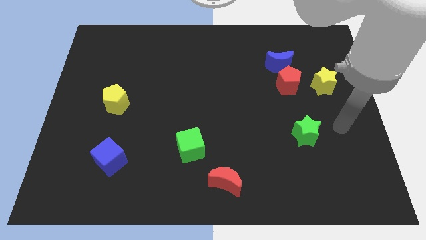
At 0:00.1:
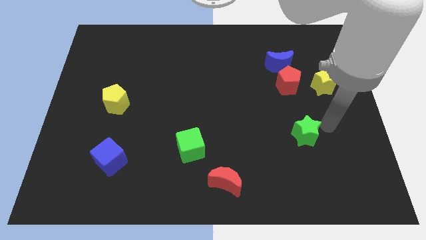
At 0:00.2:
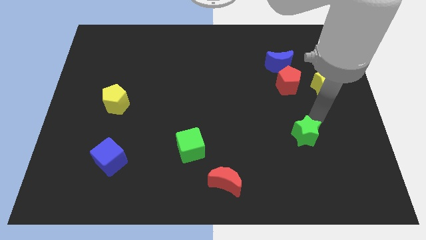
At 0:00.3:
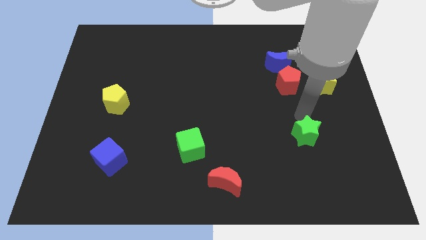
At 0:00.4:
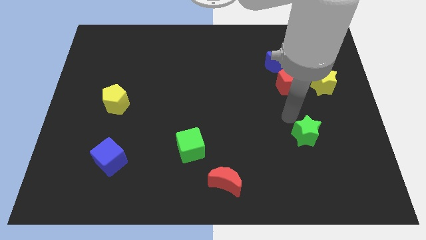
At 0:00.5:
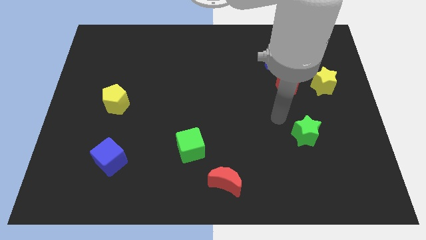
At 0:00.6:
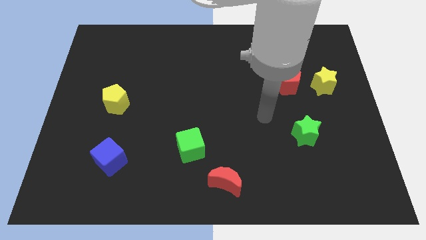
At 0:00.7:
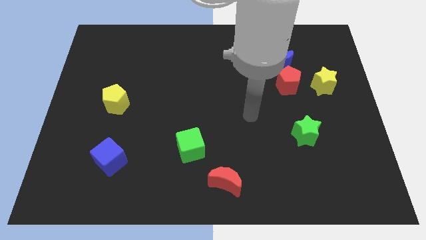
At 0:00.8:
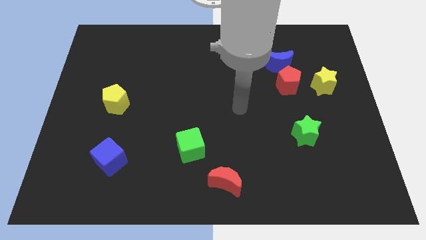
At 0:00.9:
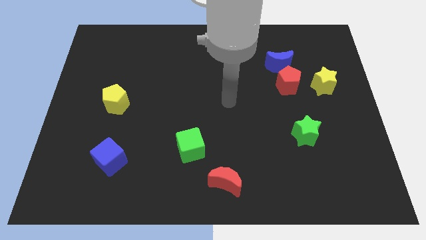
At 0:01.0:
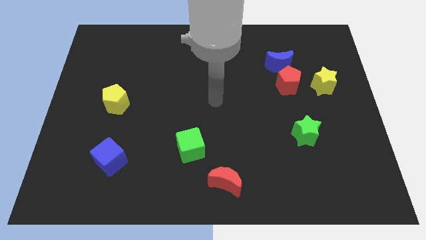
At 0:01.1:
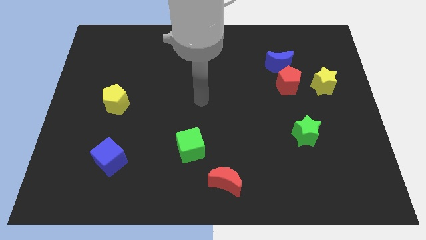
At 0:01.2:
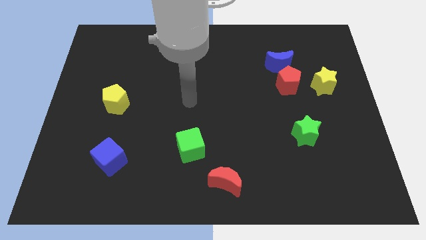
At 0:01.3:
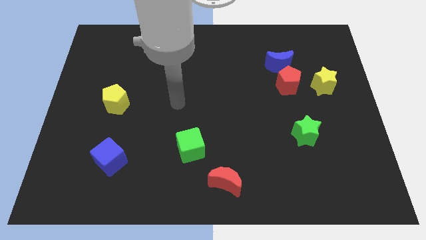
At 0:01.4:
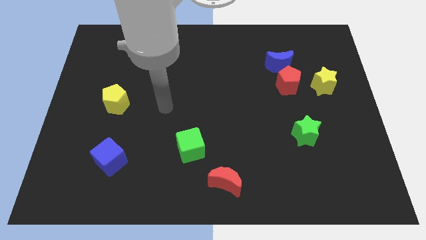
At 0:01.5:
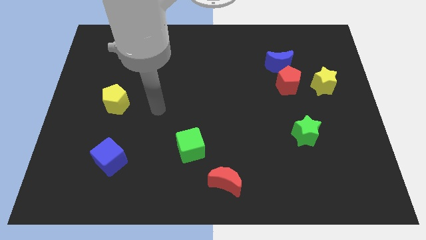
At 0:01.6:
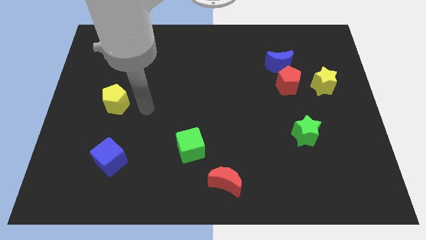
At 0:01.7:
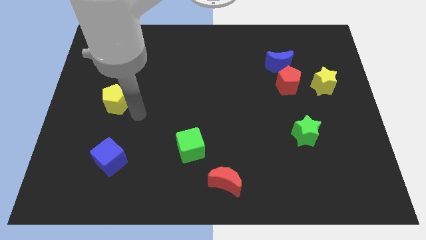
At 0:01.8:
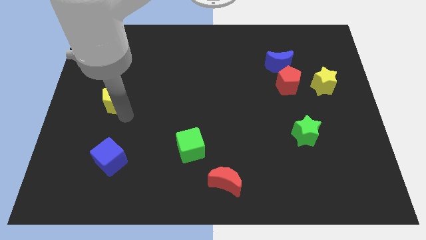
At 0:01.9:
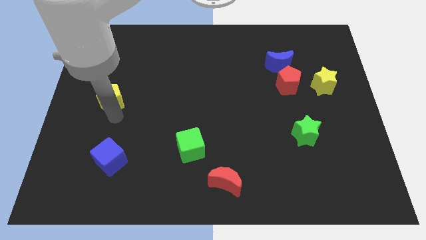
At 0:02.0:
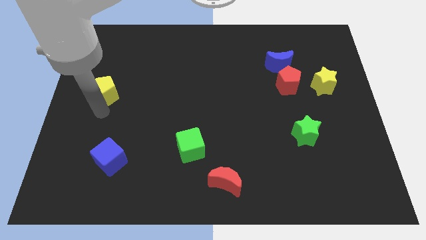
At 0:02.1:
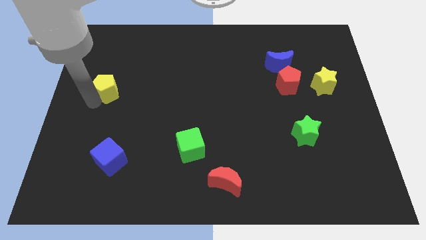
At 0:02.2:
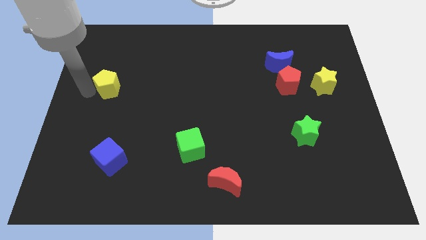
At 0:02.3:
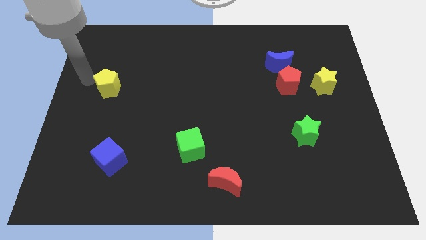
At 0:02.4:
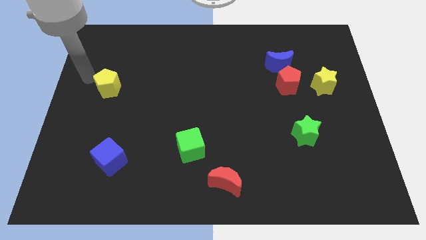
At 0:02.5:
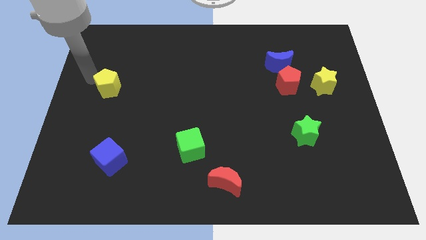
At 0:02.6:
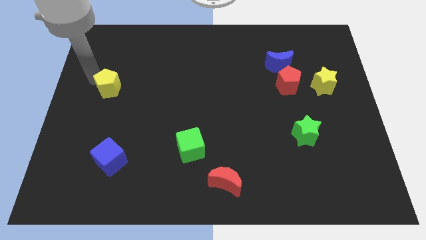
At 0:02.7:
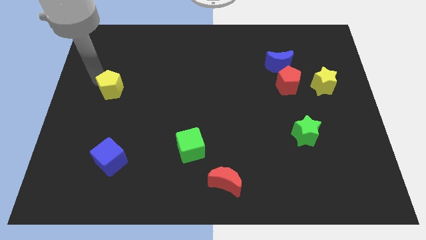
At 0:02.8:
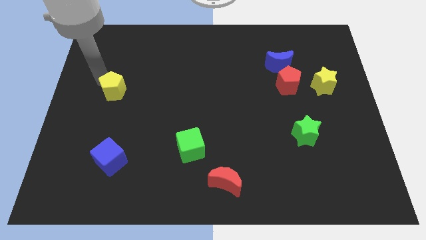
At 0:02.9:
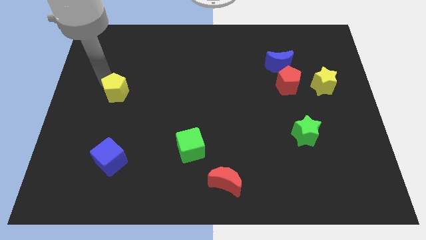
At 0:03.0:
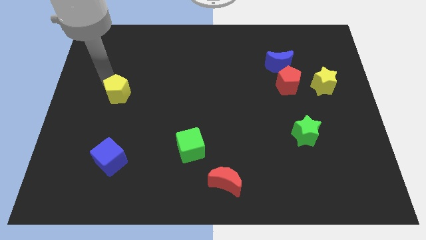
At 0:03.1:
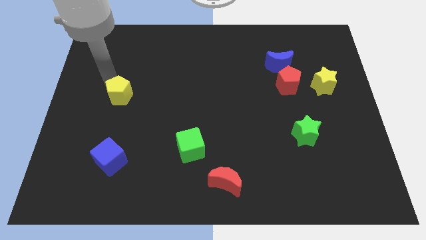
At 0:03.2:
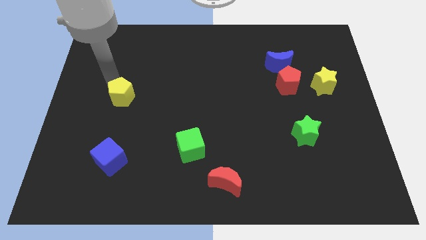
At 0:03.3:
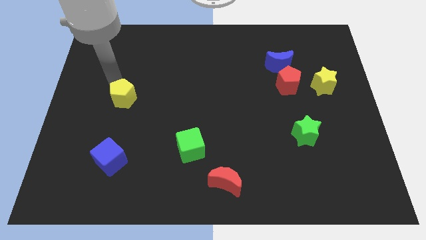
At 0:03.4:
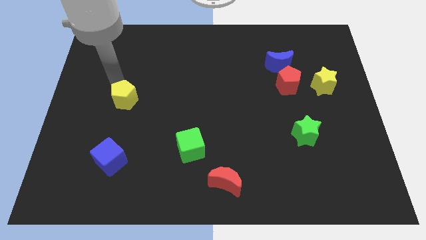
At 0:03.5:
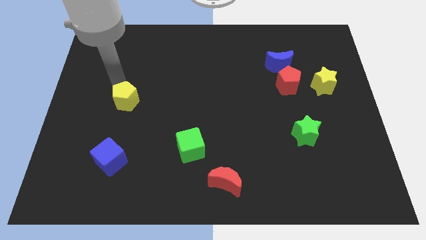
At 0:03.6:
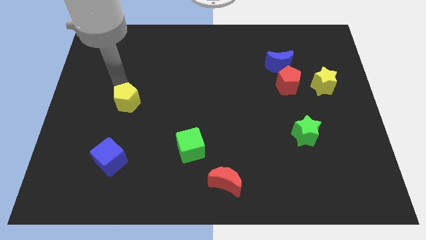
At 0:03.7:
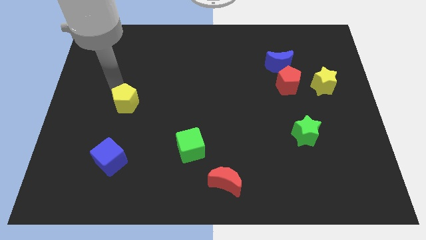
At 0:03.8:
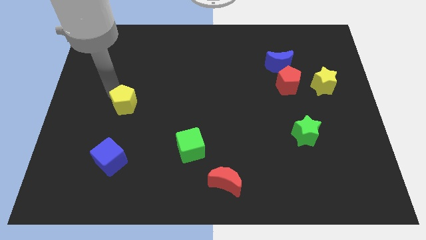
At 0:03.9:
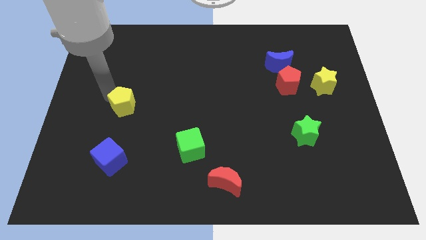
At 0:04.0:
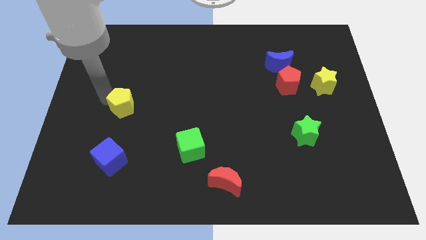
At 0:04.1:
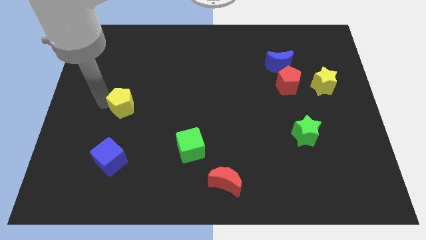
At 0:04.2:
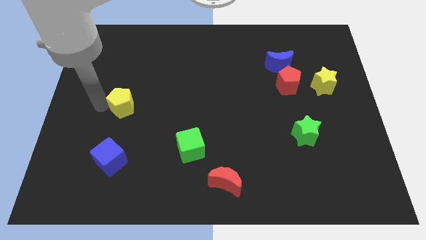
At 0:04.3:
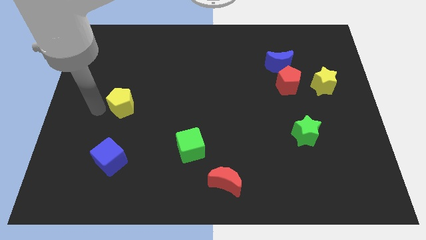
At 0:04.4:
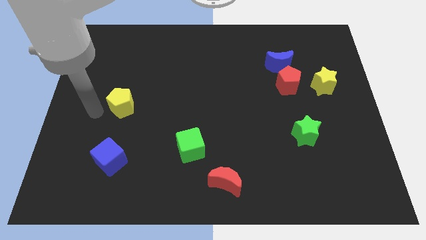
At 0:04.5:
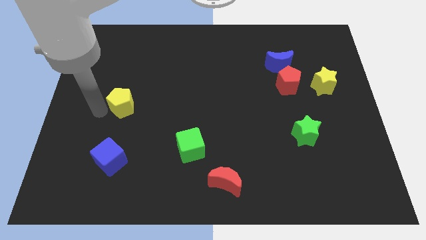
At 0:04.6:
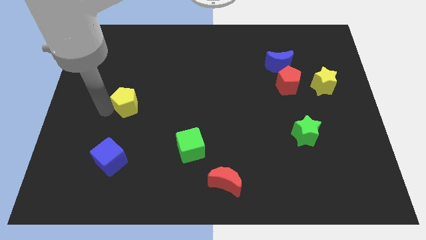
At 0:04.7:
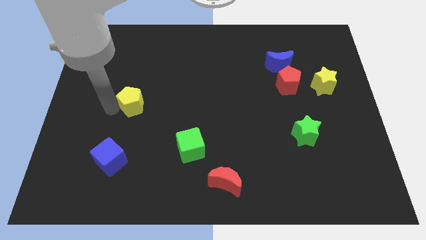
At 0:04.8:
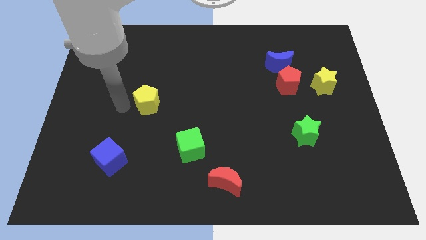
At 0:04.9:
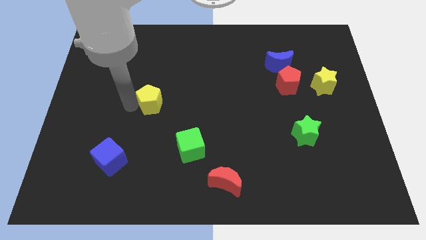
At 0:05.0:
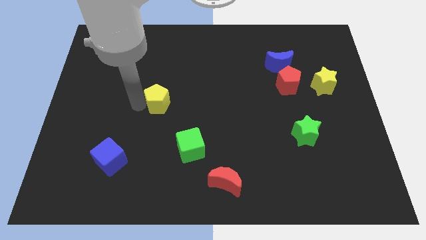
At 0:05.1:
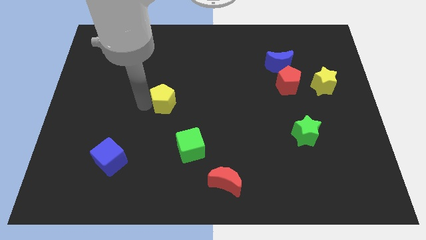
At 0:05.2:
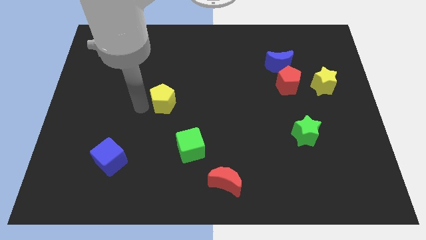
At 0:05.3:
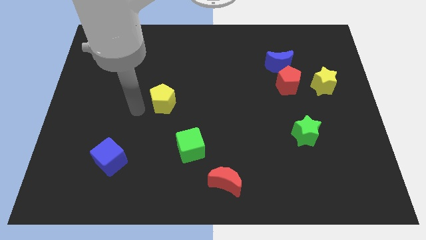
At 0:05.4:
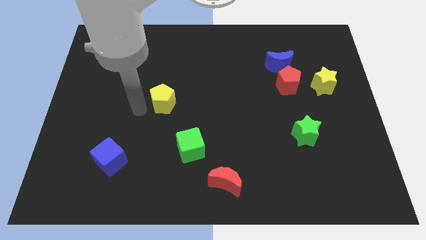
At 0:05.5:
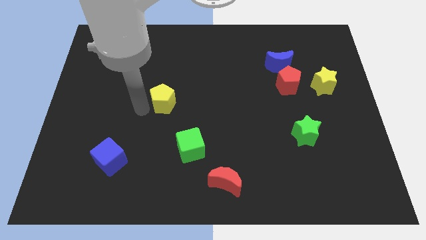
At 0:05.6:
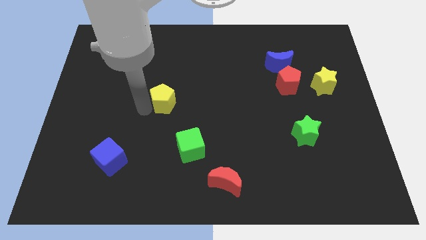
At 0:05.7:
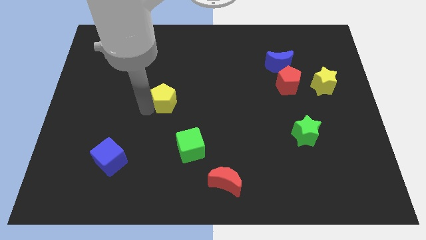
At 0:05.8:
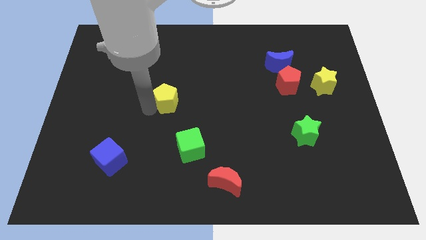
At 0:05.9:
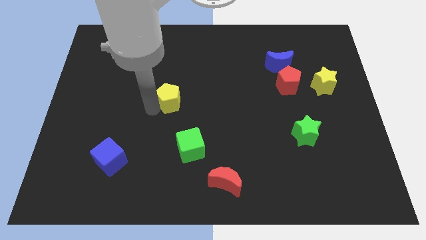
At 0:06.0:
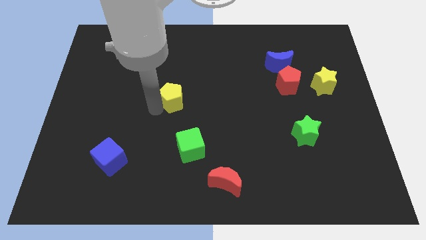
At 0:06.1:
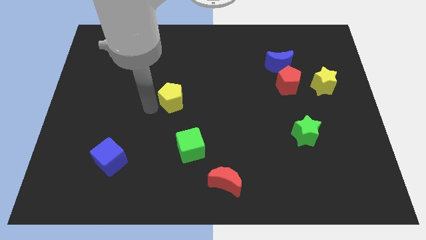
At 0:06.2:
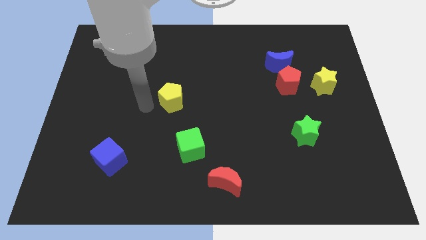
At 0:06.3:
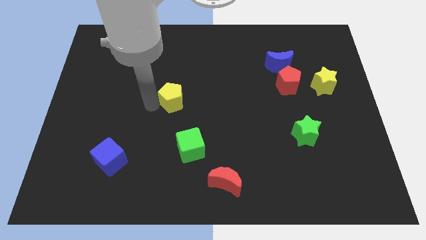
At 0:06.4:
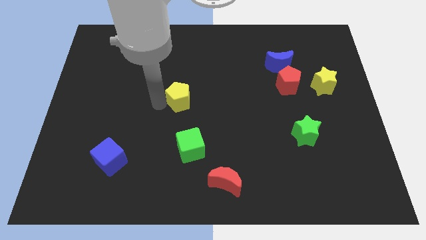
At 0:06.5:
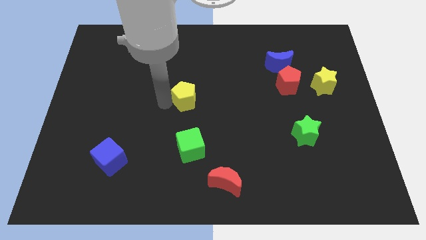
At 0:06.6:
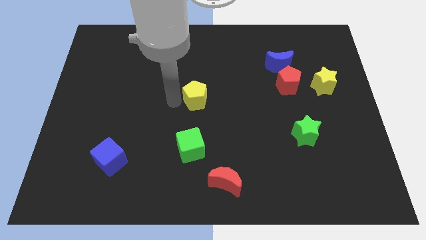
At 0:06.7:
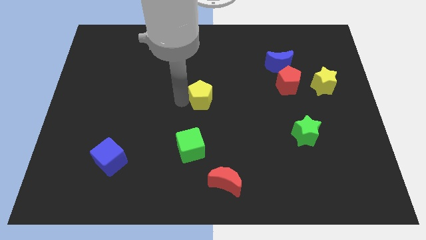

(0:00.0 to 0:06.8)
slide the yellow pentagon right

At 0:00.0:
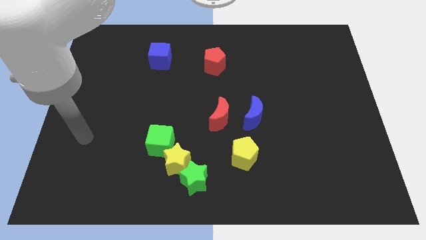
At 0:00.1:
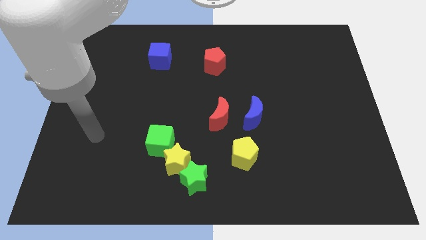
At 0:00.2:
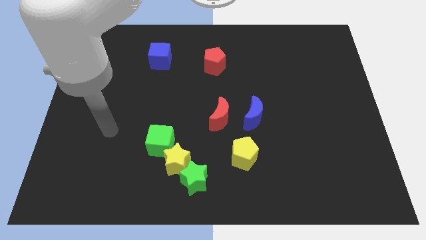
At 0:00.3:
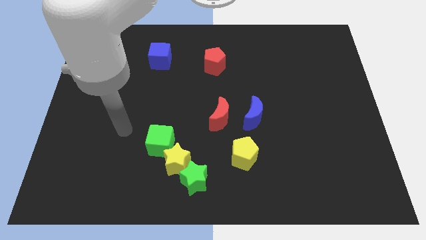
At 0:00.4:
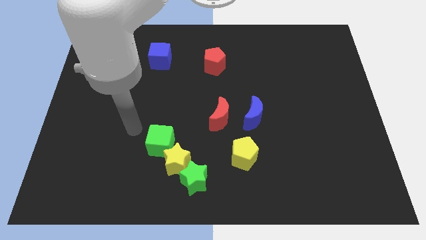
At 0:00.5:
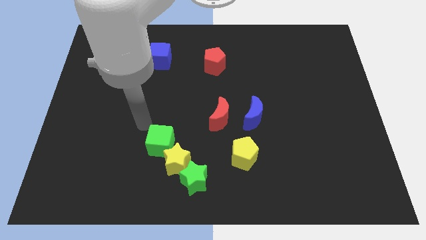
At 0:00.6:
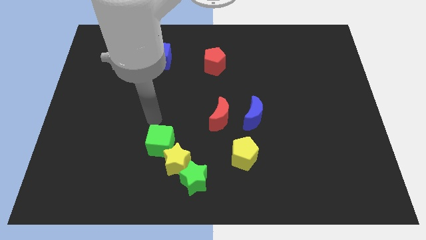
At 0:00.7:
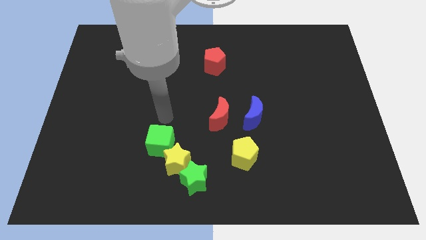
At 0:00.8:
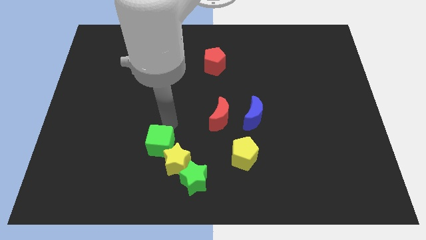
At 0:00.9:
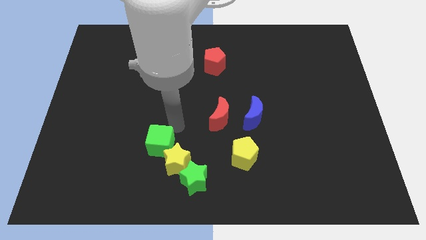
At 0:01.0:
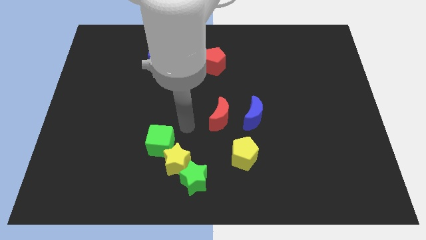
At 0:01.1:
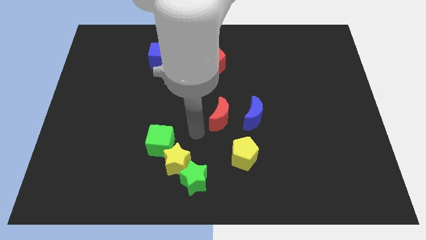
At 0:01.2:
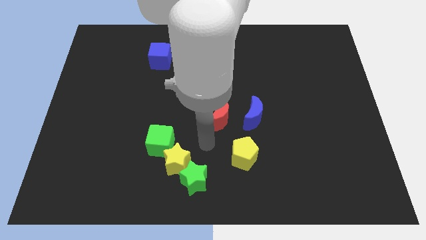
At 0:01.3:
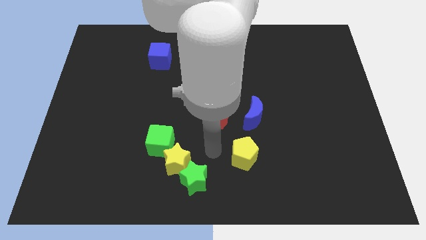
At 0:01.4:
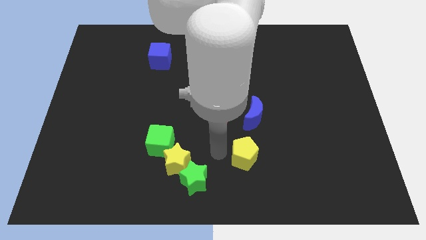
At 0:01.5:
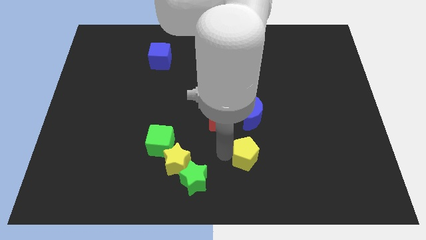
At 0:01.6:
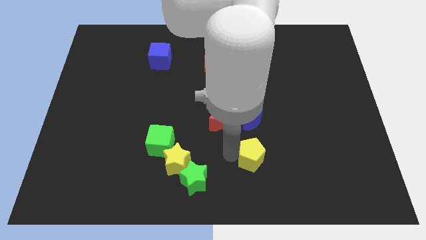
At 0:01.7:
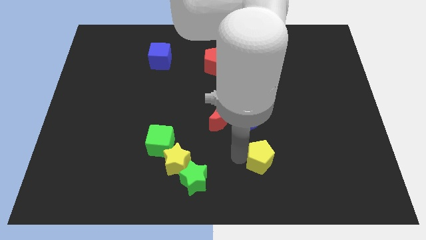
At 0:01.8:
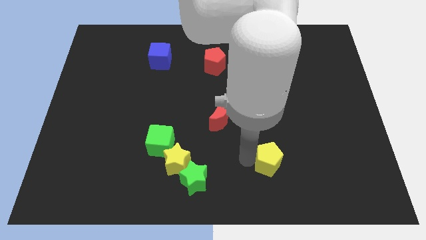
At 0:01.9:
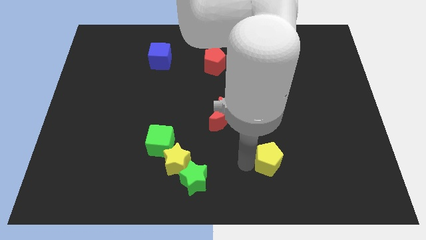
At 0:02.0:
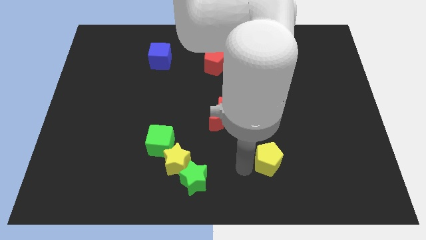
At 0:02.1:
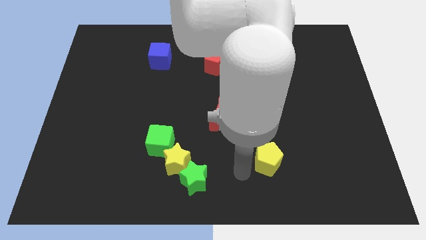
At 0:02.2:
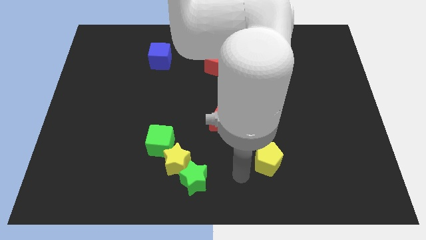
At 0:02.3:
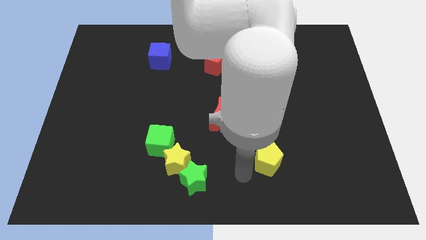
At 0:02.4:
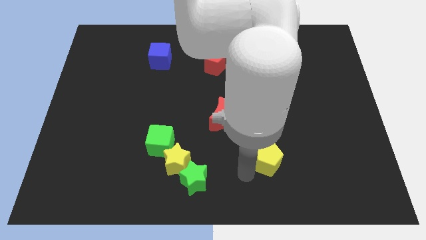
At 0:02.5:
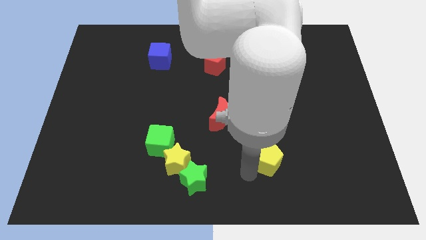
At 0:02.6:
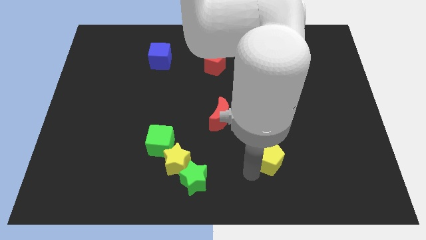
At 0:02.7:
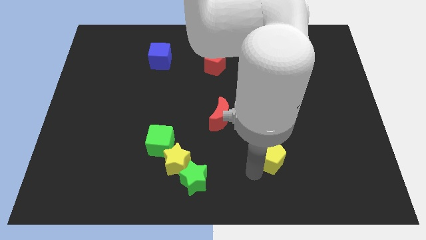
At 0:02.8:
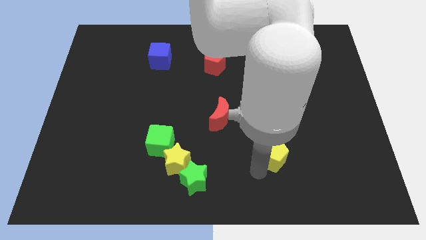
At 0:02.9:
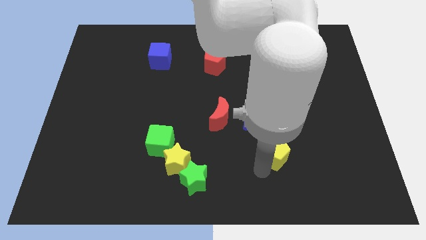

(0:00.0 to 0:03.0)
slightly slide the yellow pentagon to the right
